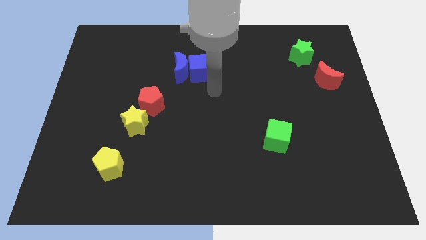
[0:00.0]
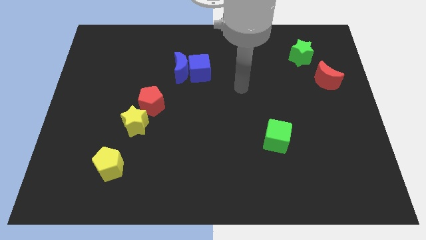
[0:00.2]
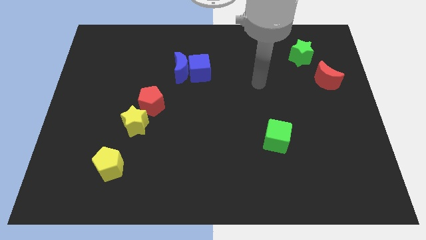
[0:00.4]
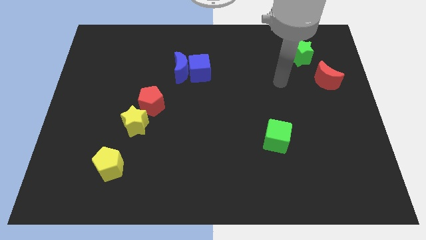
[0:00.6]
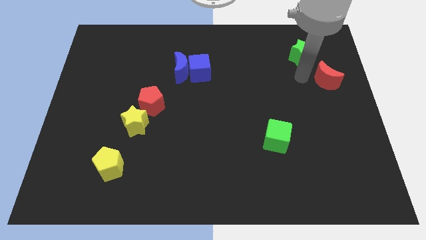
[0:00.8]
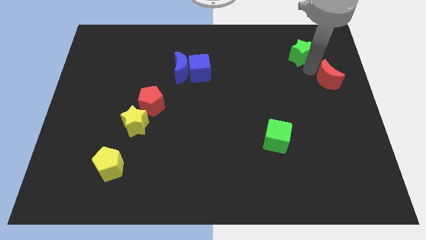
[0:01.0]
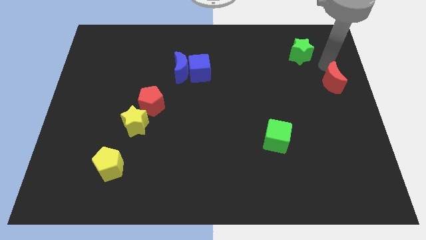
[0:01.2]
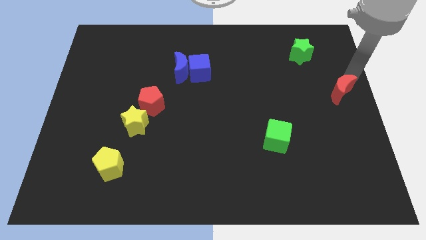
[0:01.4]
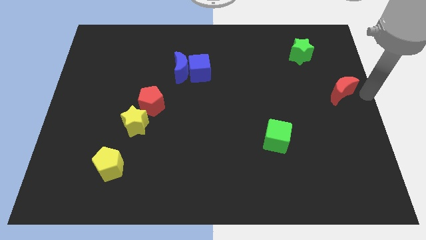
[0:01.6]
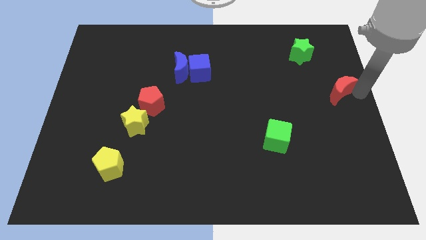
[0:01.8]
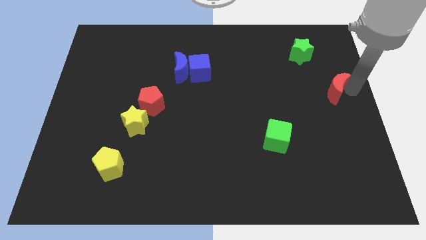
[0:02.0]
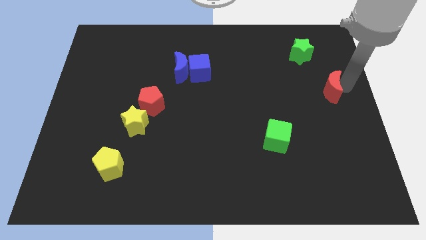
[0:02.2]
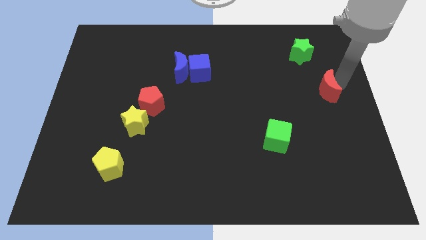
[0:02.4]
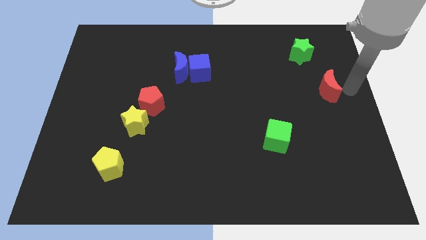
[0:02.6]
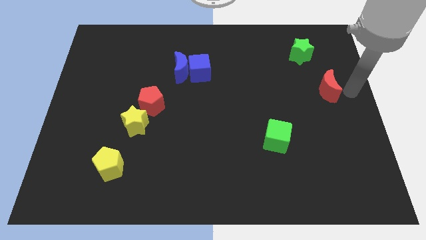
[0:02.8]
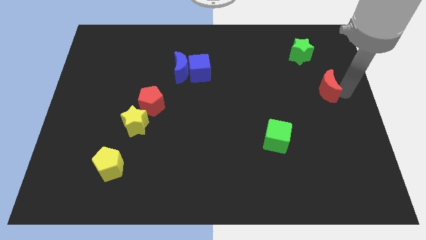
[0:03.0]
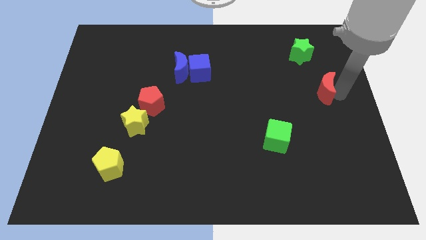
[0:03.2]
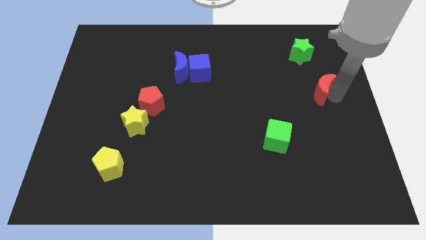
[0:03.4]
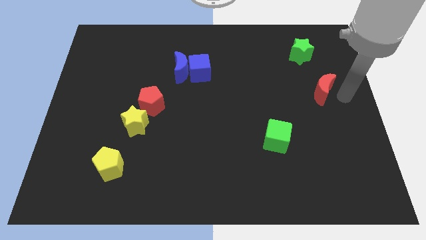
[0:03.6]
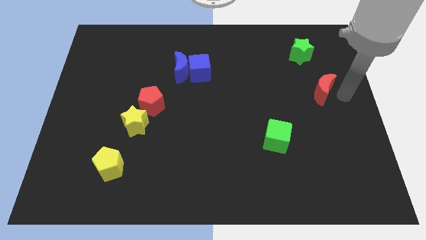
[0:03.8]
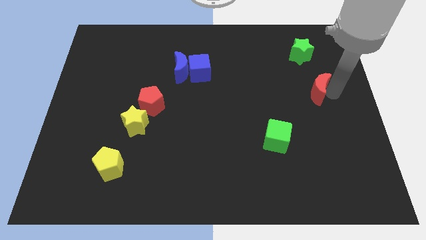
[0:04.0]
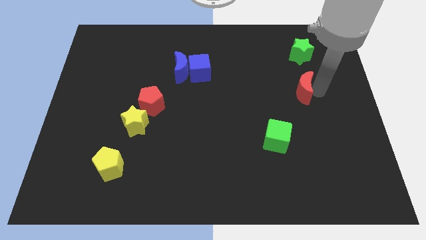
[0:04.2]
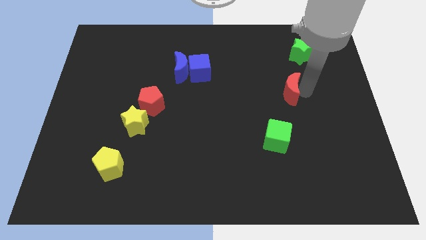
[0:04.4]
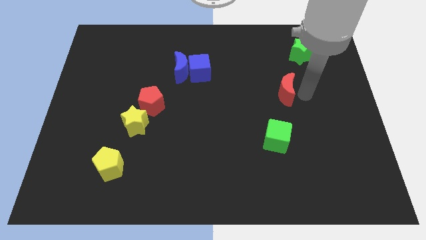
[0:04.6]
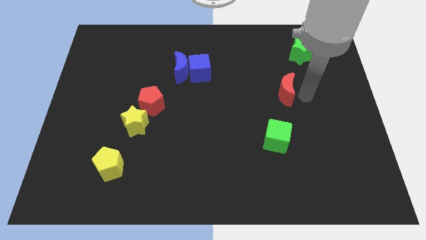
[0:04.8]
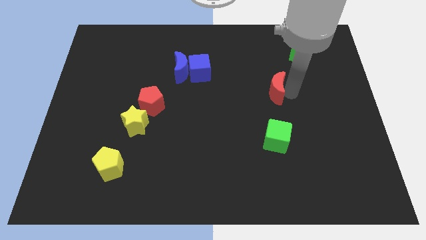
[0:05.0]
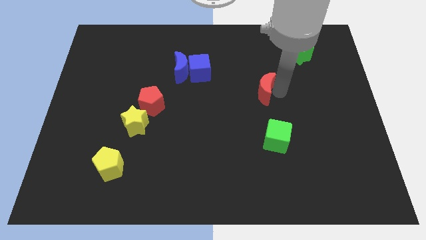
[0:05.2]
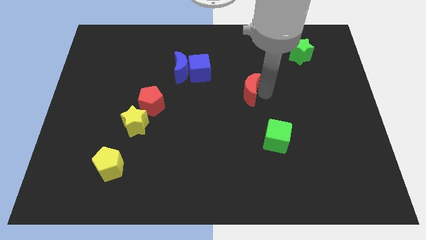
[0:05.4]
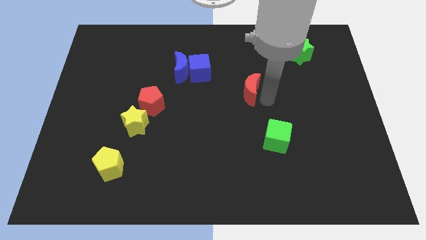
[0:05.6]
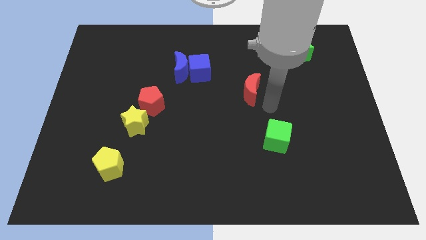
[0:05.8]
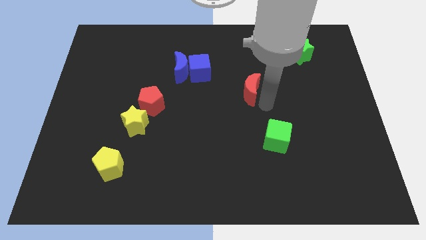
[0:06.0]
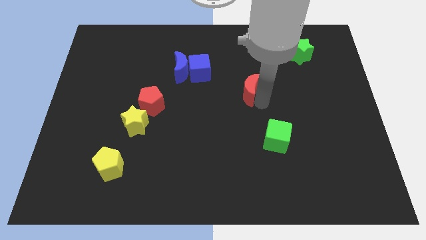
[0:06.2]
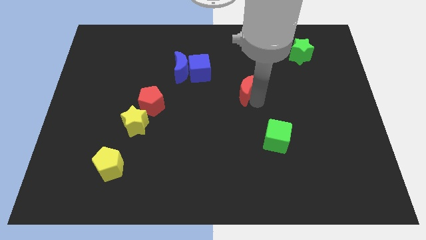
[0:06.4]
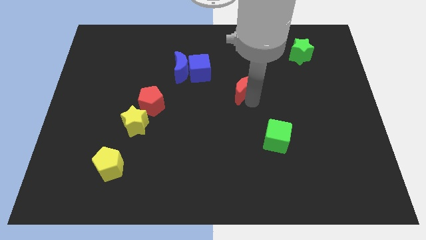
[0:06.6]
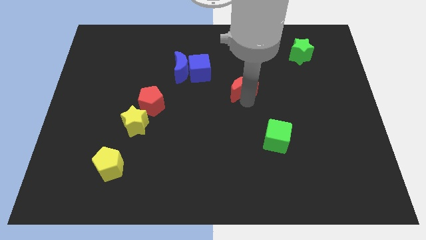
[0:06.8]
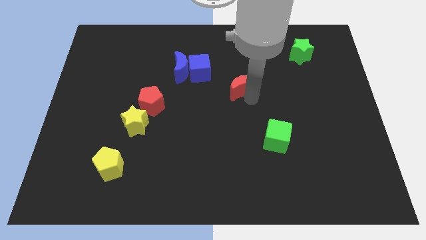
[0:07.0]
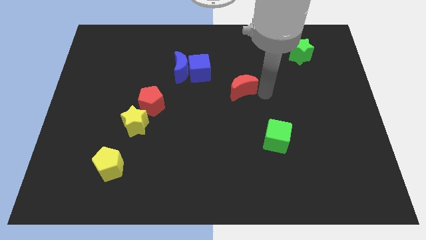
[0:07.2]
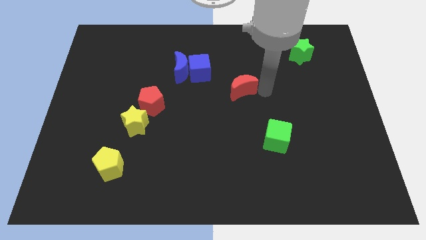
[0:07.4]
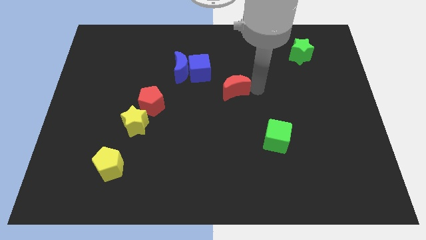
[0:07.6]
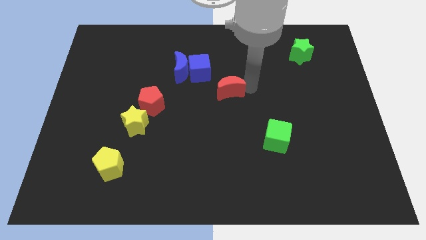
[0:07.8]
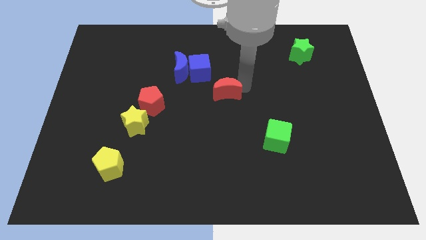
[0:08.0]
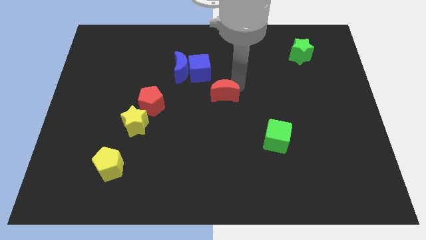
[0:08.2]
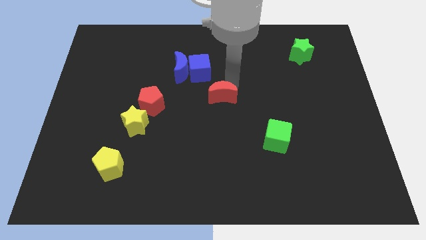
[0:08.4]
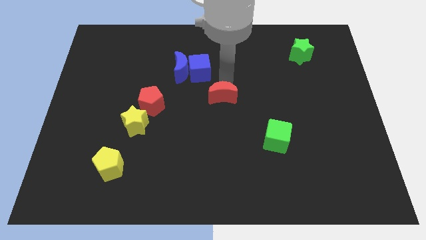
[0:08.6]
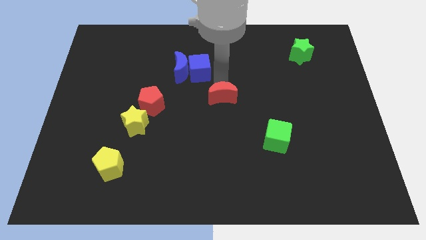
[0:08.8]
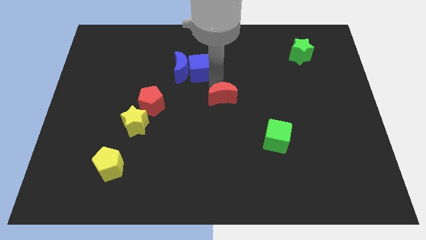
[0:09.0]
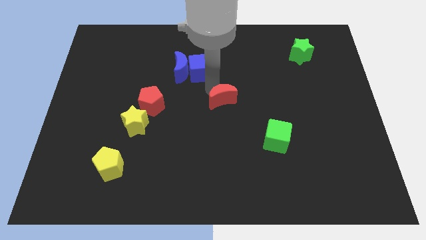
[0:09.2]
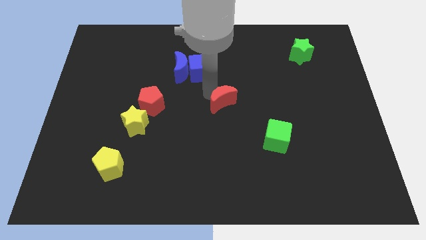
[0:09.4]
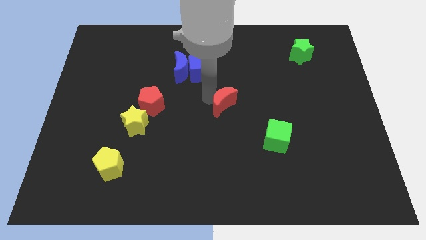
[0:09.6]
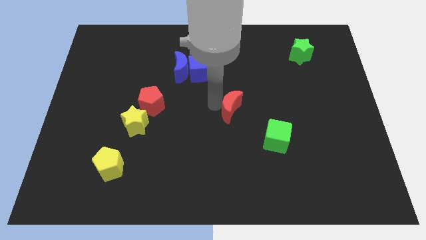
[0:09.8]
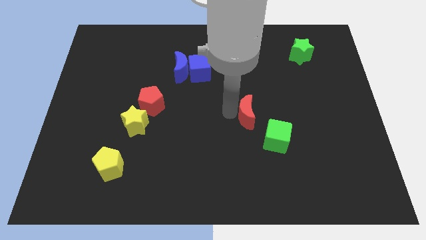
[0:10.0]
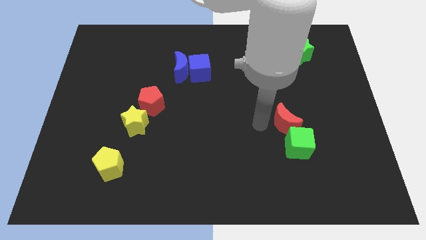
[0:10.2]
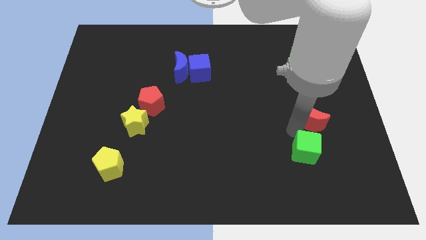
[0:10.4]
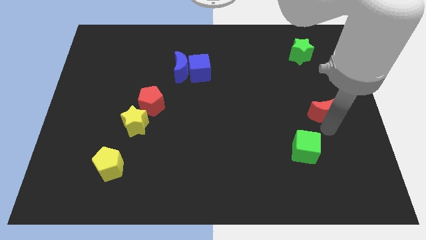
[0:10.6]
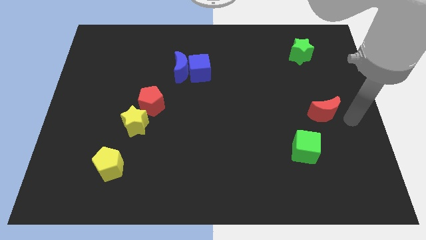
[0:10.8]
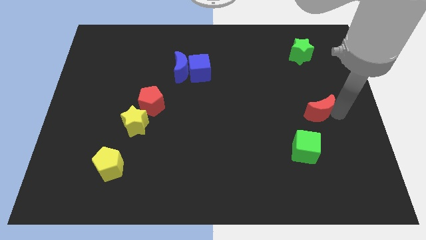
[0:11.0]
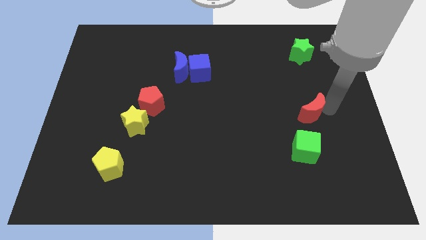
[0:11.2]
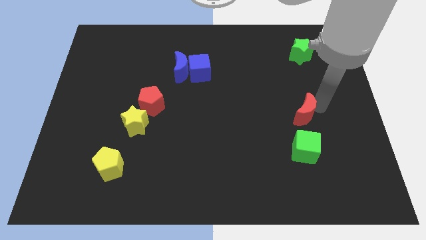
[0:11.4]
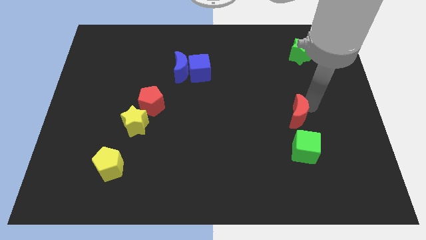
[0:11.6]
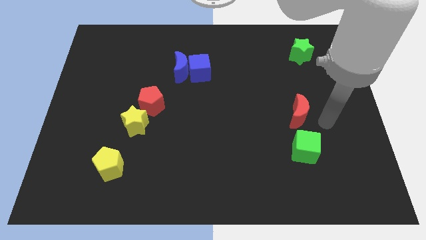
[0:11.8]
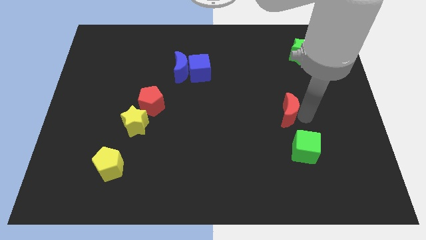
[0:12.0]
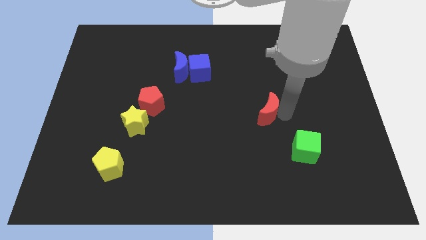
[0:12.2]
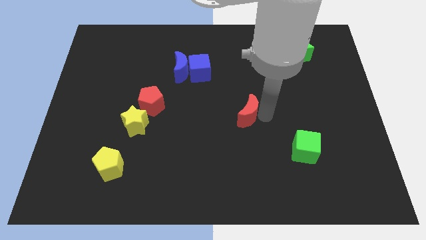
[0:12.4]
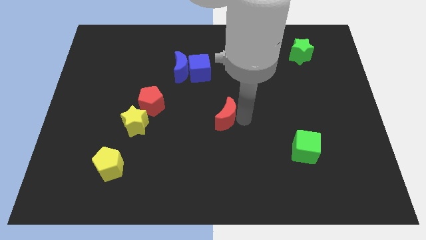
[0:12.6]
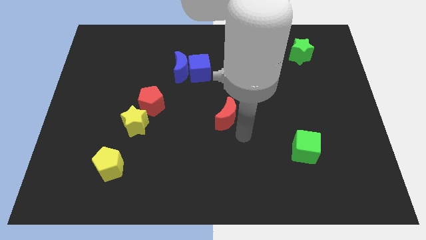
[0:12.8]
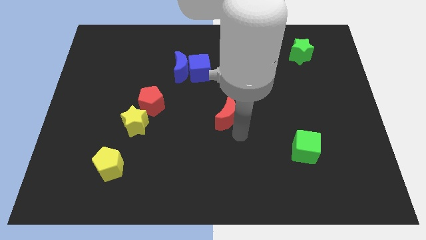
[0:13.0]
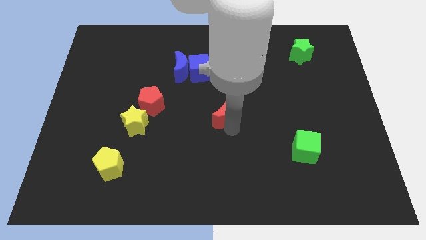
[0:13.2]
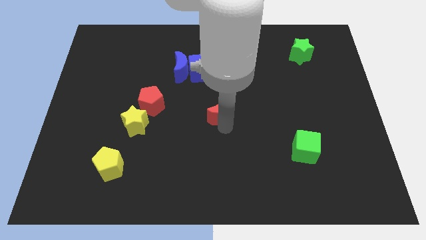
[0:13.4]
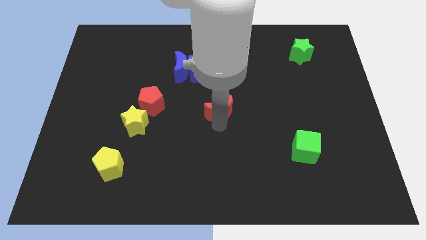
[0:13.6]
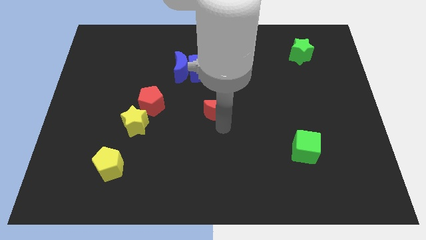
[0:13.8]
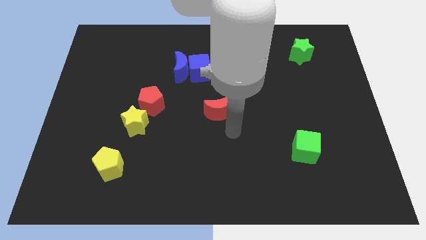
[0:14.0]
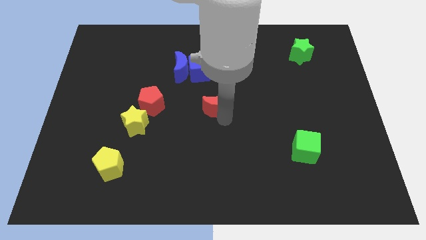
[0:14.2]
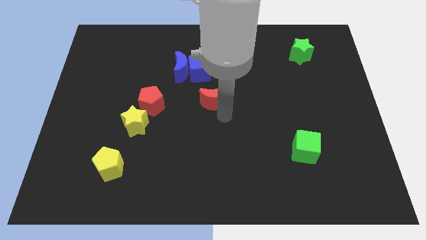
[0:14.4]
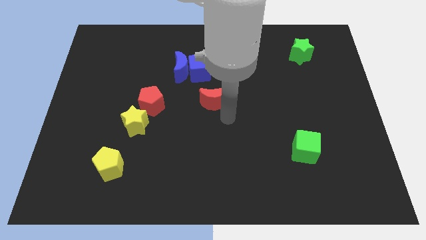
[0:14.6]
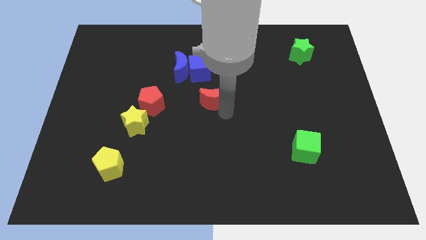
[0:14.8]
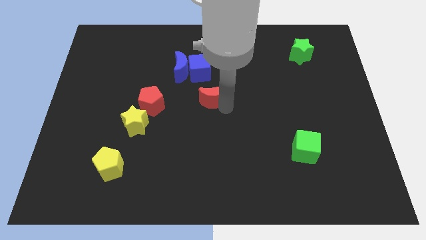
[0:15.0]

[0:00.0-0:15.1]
slide the red moon to the bottom right of the blue moon
